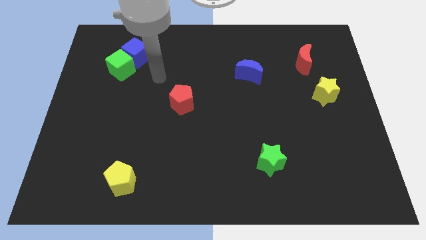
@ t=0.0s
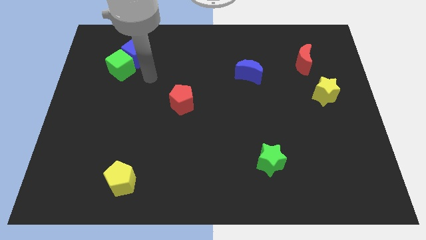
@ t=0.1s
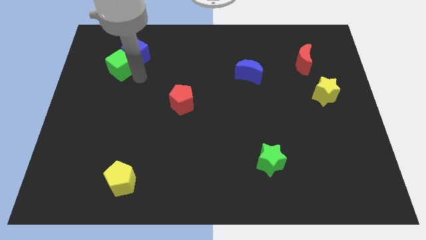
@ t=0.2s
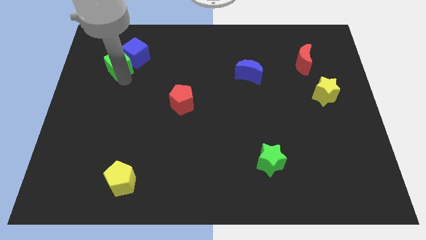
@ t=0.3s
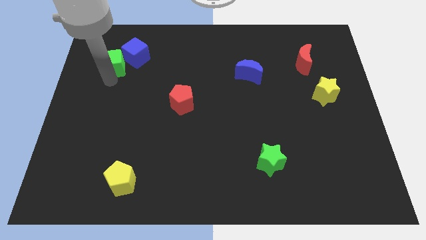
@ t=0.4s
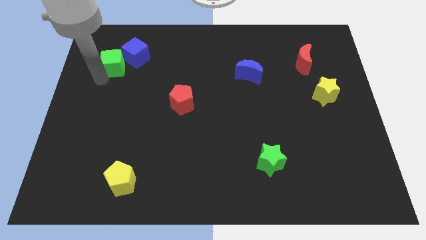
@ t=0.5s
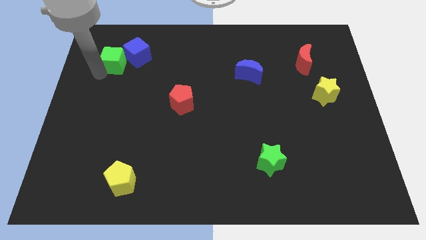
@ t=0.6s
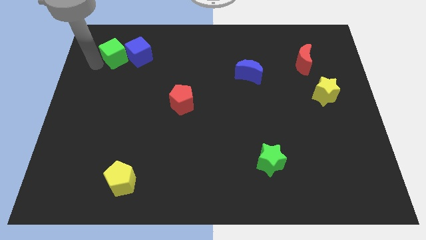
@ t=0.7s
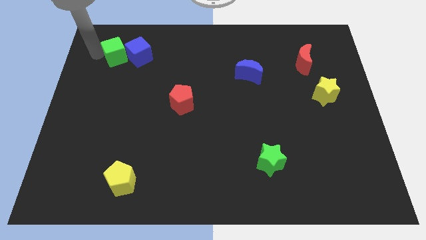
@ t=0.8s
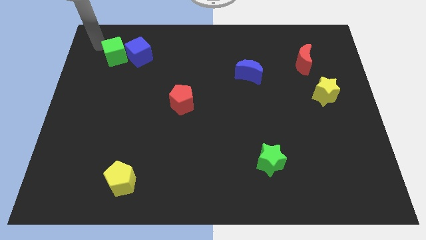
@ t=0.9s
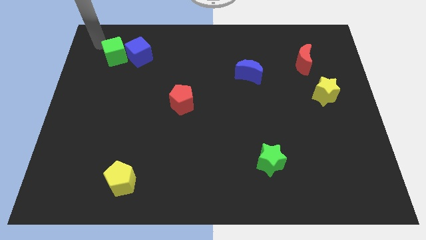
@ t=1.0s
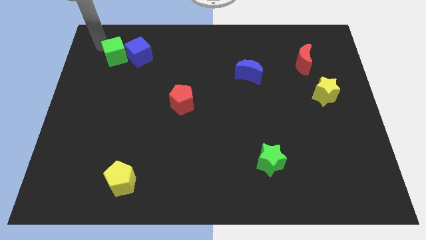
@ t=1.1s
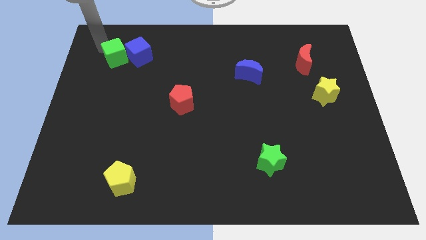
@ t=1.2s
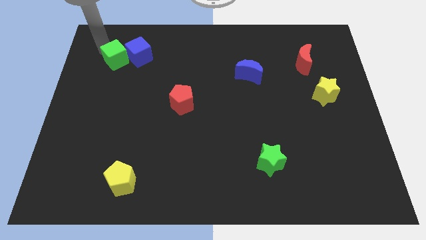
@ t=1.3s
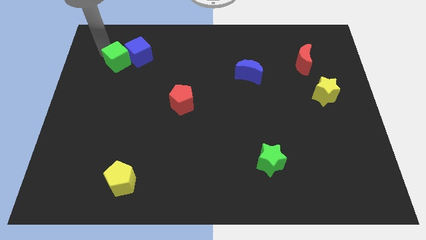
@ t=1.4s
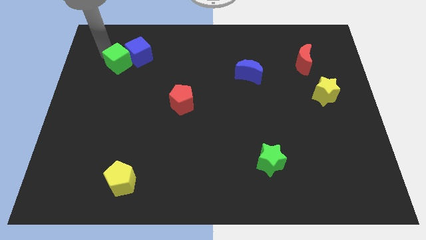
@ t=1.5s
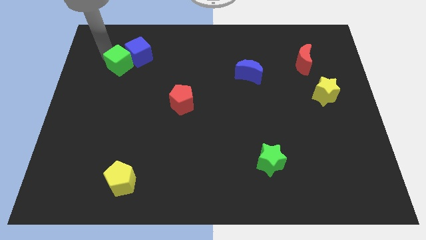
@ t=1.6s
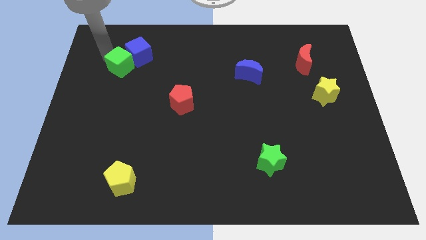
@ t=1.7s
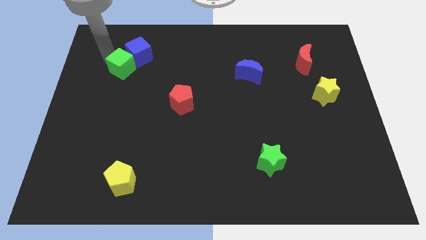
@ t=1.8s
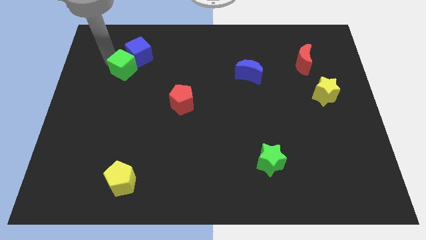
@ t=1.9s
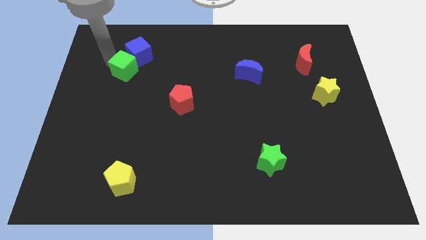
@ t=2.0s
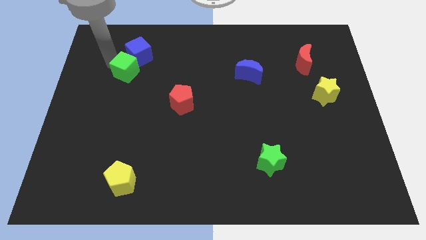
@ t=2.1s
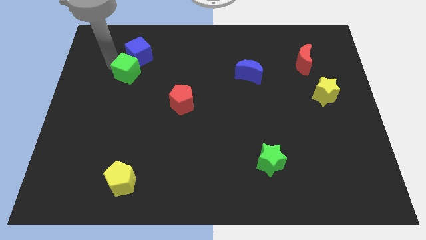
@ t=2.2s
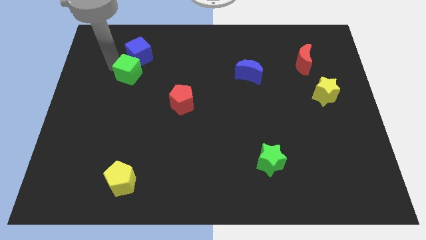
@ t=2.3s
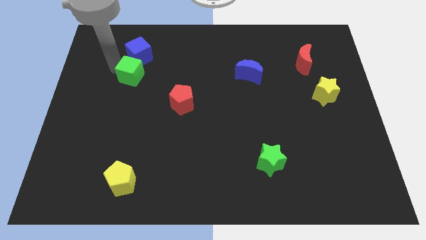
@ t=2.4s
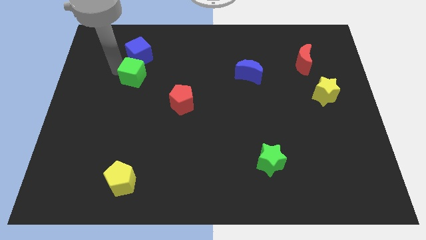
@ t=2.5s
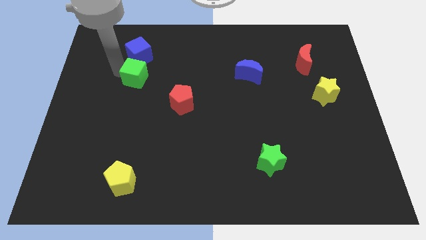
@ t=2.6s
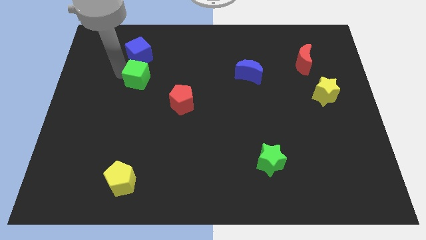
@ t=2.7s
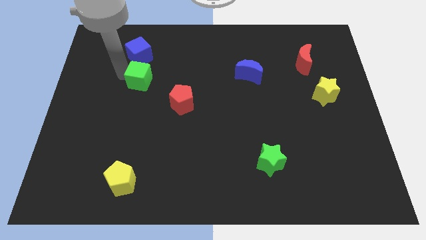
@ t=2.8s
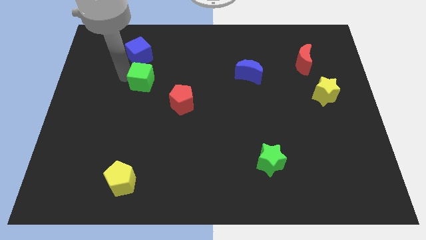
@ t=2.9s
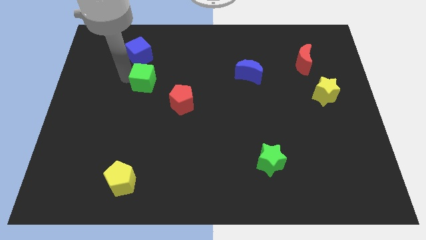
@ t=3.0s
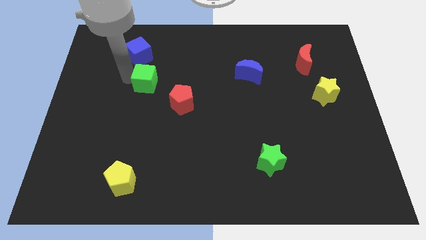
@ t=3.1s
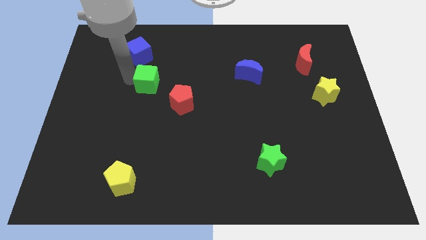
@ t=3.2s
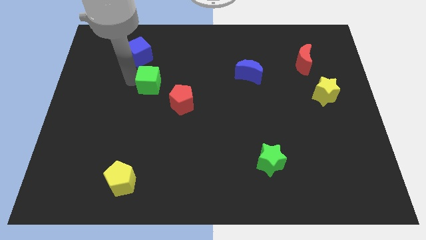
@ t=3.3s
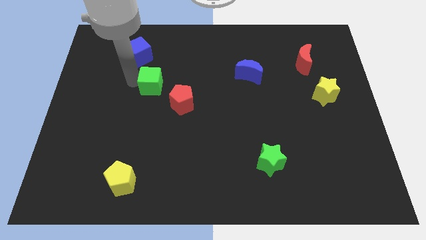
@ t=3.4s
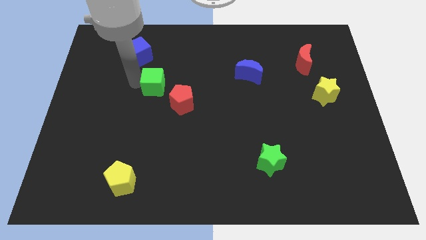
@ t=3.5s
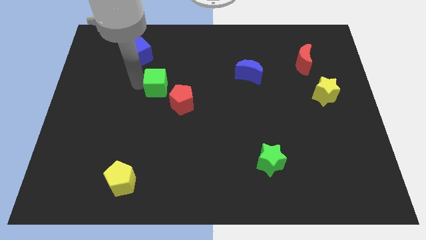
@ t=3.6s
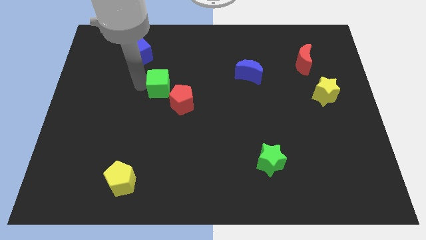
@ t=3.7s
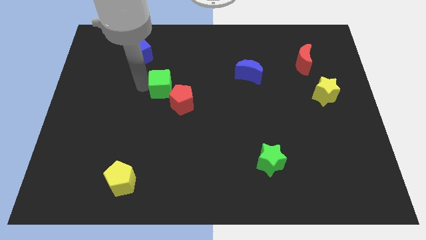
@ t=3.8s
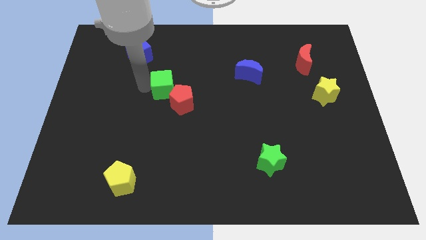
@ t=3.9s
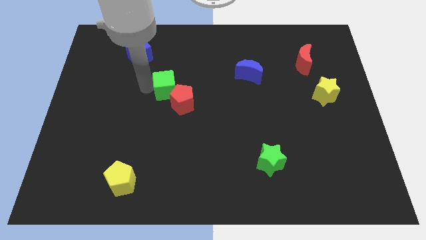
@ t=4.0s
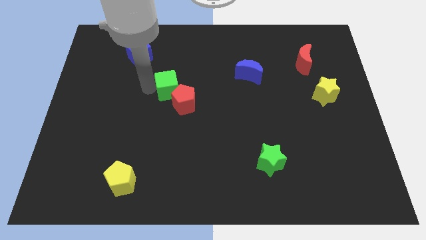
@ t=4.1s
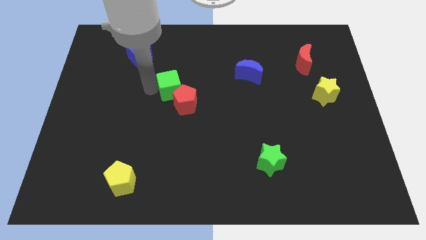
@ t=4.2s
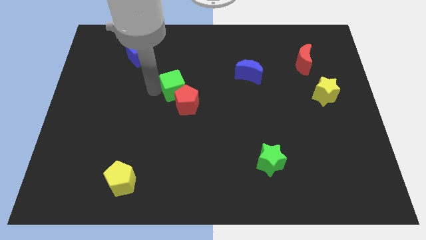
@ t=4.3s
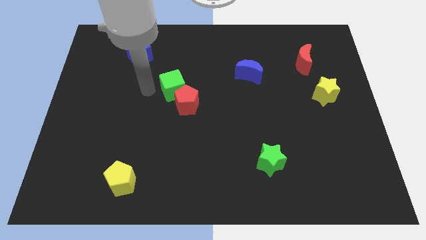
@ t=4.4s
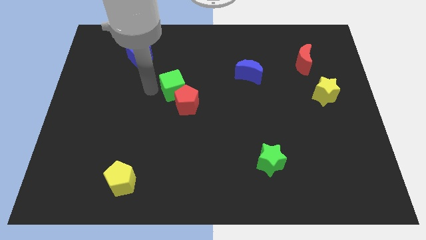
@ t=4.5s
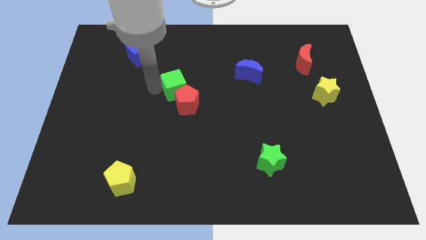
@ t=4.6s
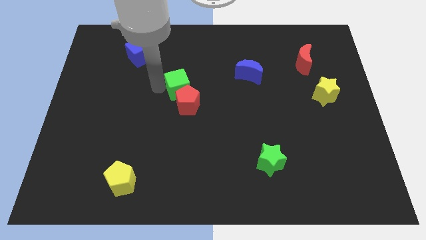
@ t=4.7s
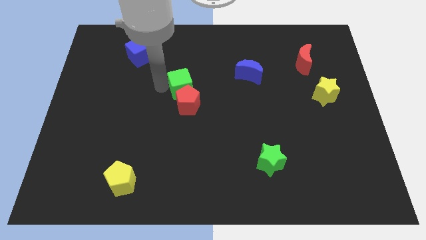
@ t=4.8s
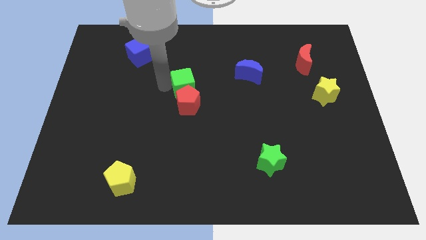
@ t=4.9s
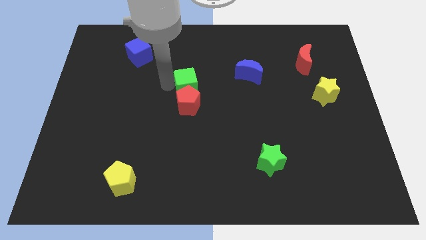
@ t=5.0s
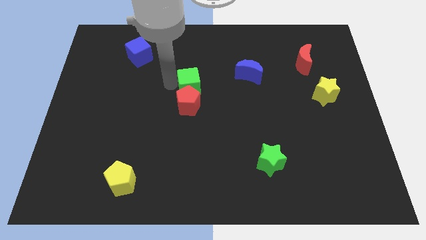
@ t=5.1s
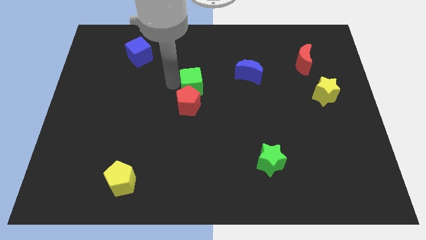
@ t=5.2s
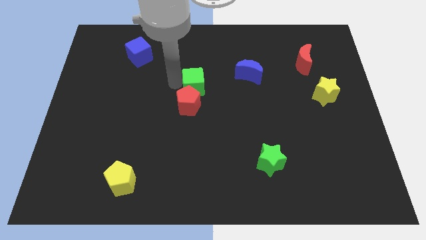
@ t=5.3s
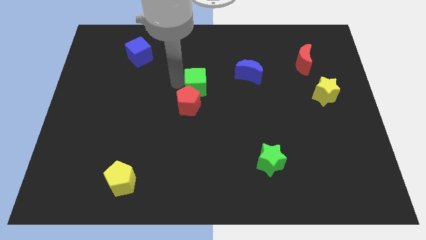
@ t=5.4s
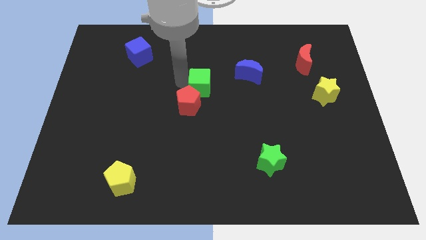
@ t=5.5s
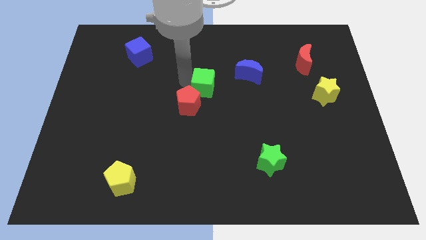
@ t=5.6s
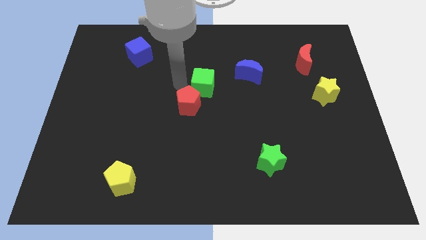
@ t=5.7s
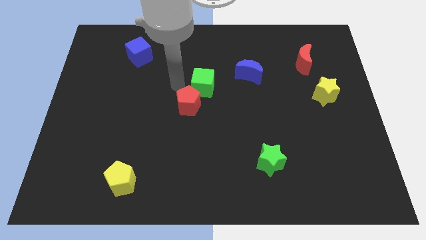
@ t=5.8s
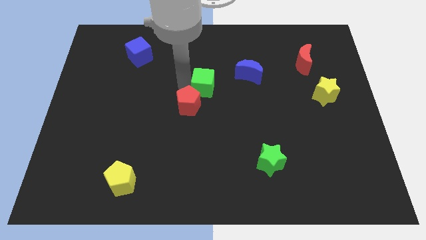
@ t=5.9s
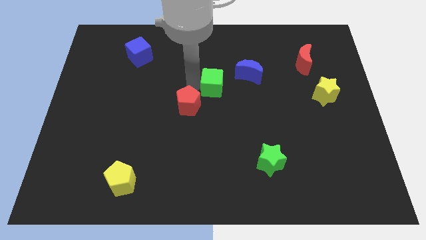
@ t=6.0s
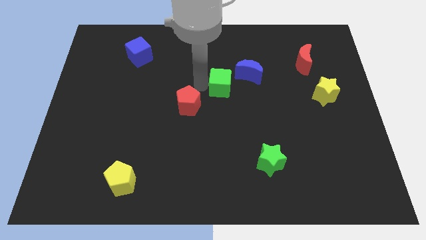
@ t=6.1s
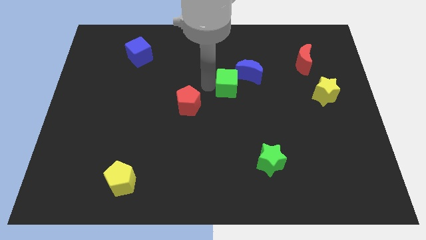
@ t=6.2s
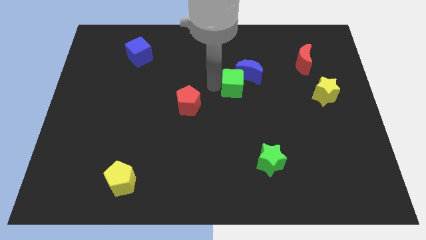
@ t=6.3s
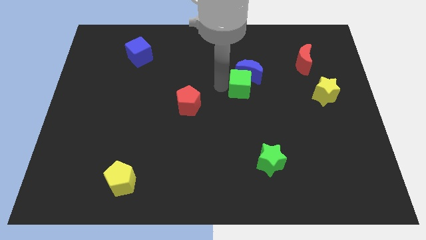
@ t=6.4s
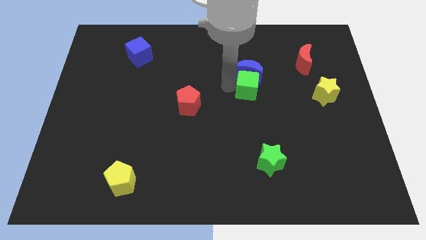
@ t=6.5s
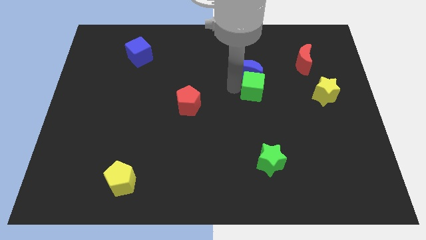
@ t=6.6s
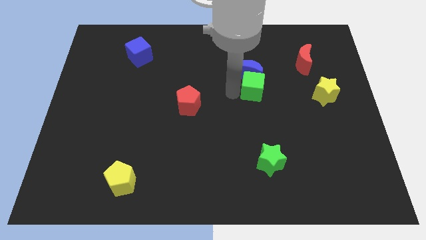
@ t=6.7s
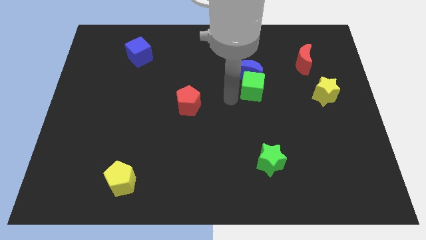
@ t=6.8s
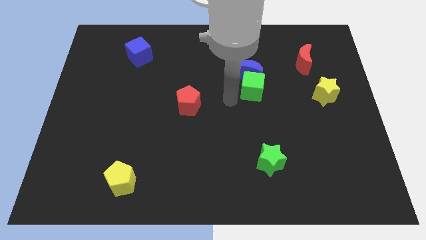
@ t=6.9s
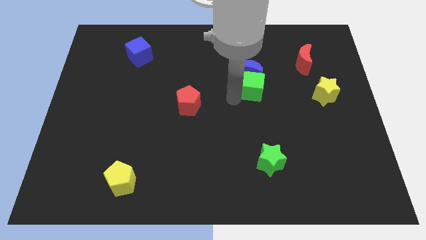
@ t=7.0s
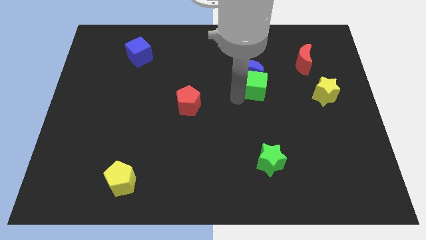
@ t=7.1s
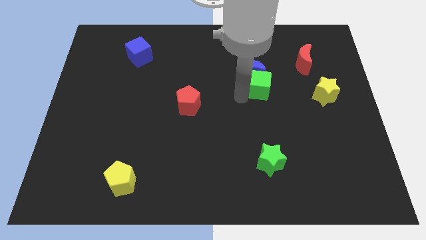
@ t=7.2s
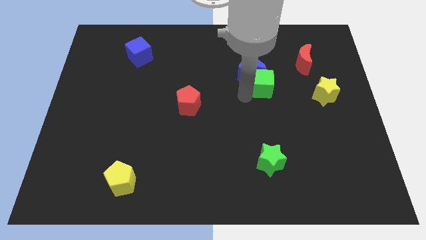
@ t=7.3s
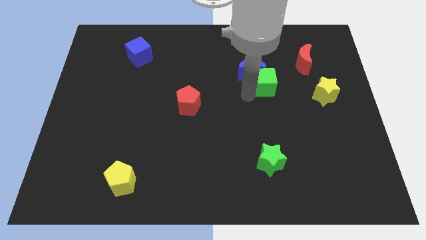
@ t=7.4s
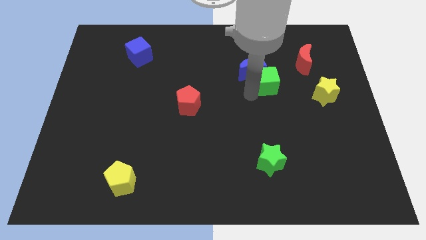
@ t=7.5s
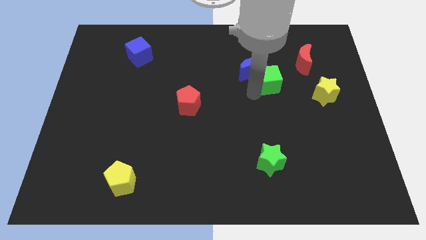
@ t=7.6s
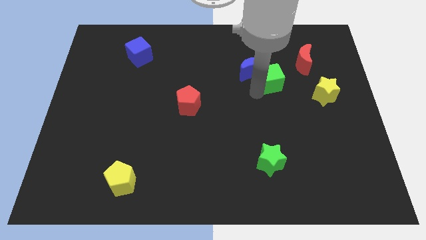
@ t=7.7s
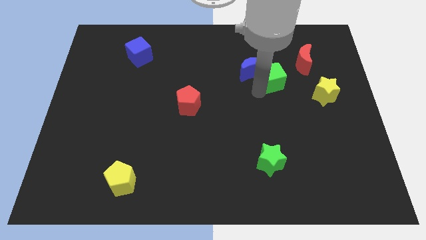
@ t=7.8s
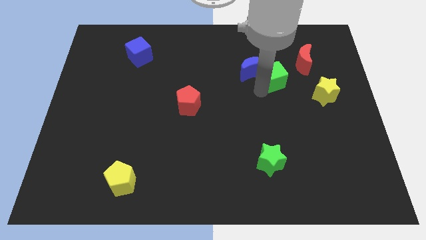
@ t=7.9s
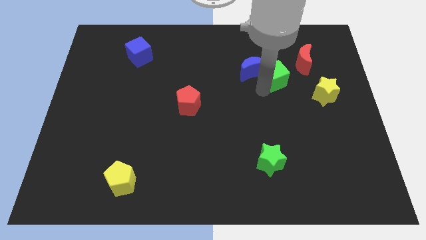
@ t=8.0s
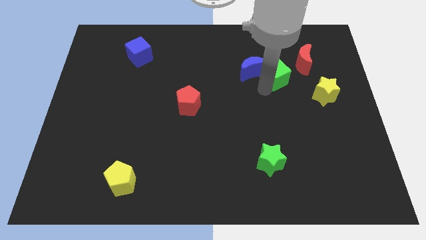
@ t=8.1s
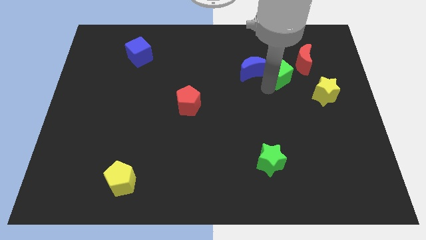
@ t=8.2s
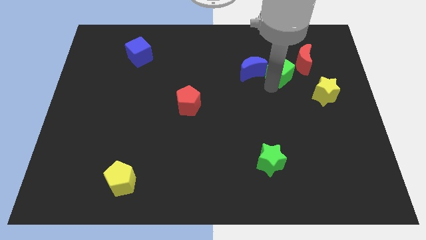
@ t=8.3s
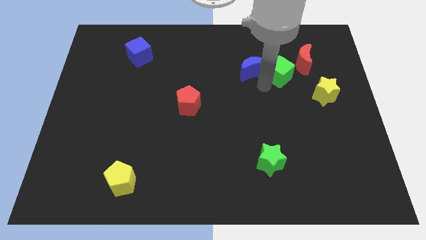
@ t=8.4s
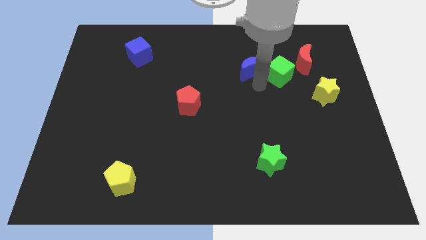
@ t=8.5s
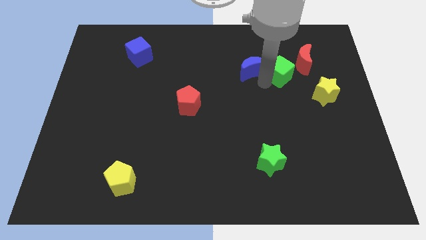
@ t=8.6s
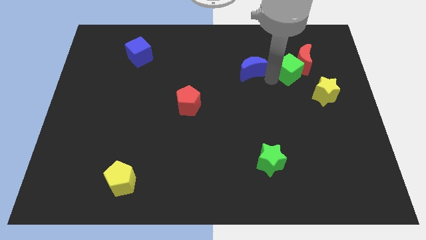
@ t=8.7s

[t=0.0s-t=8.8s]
push the green cube to the red moon
